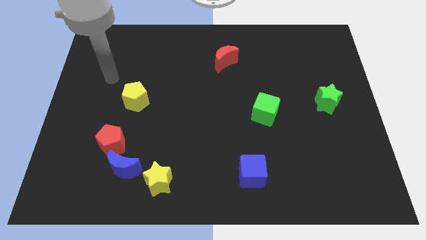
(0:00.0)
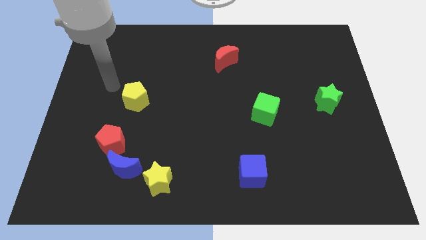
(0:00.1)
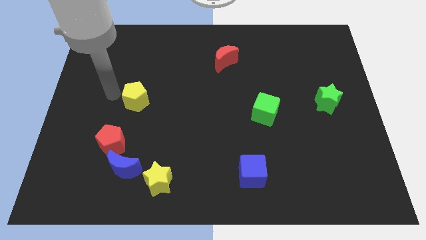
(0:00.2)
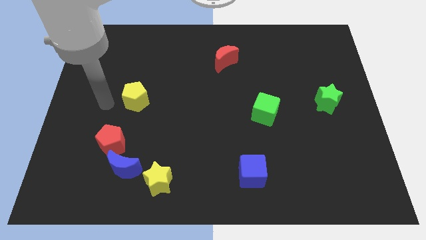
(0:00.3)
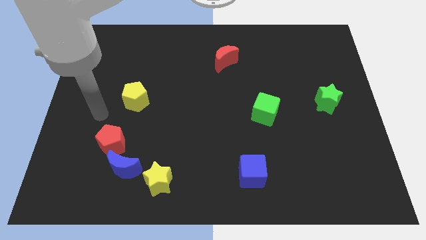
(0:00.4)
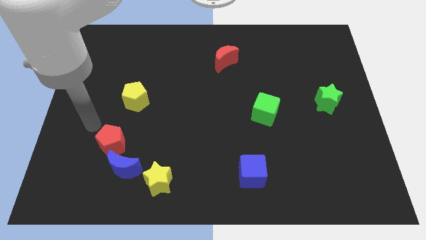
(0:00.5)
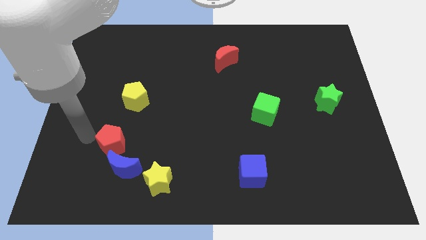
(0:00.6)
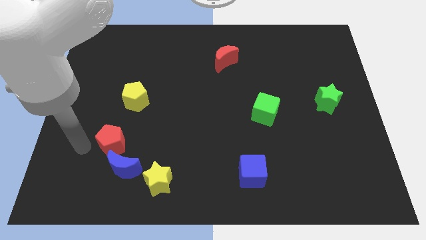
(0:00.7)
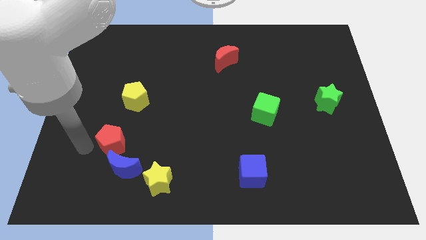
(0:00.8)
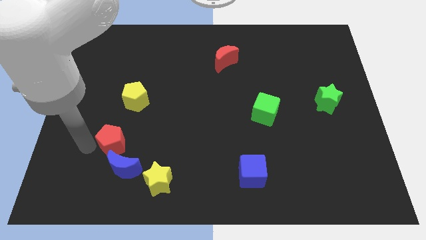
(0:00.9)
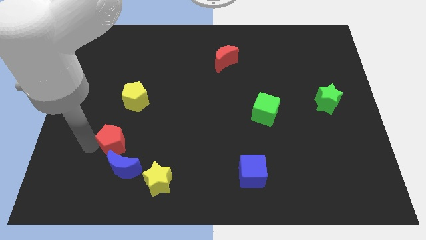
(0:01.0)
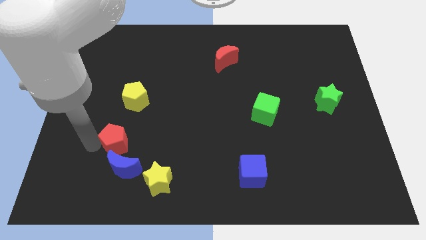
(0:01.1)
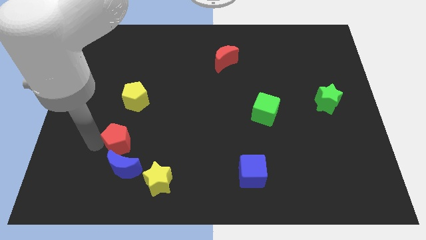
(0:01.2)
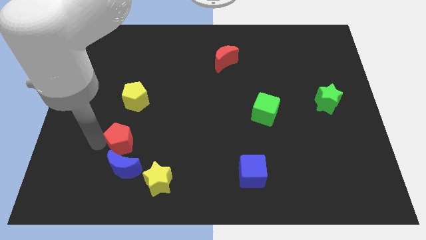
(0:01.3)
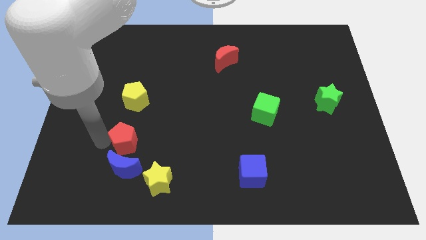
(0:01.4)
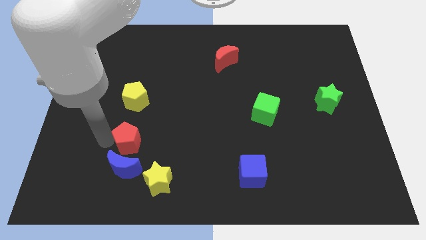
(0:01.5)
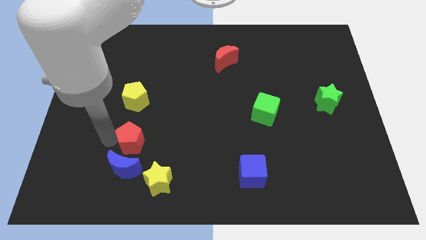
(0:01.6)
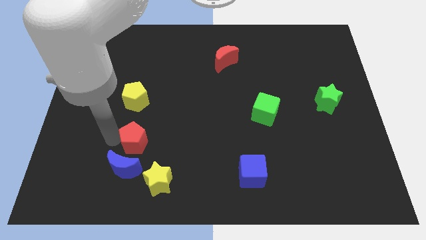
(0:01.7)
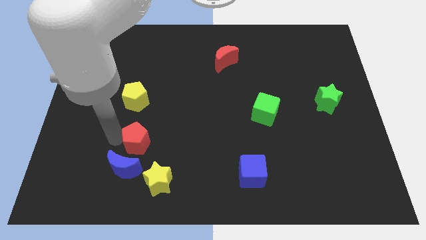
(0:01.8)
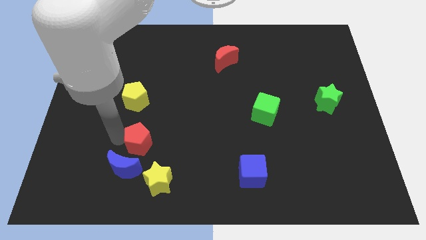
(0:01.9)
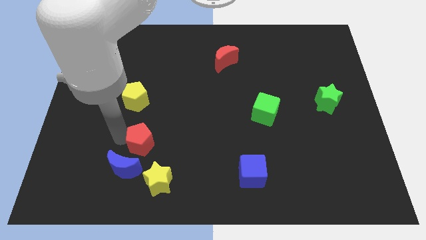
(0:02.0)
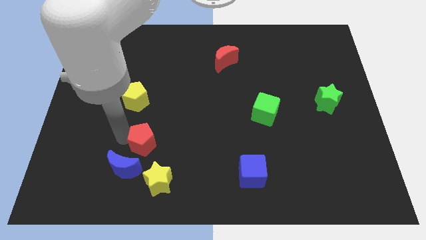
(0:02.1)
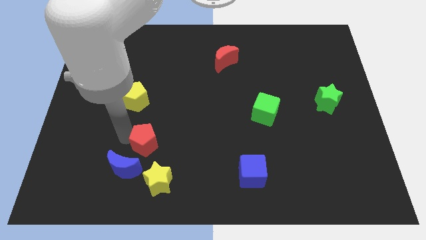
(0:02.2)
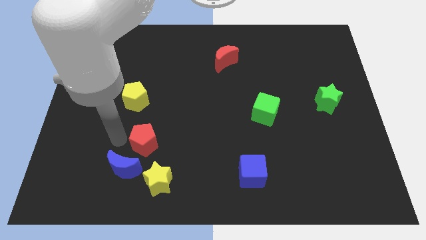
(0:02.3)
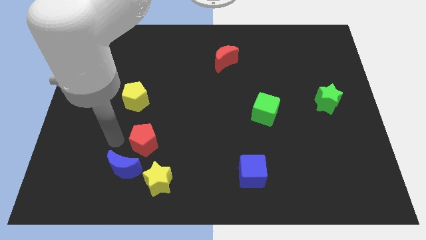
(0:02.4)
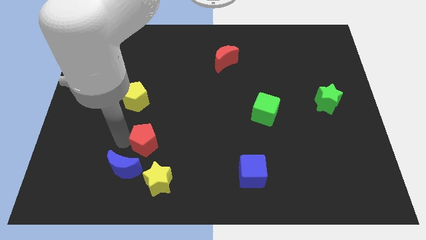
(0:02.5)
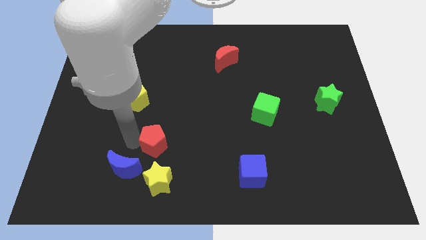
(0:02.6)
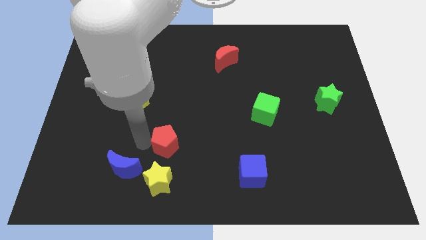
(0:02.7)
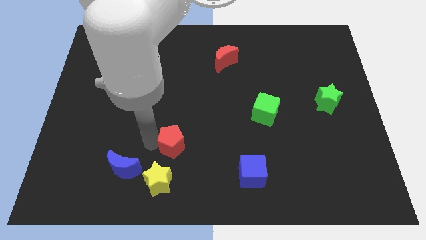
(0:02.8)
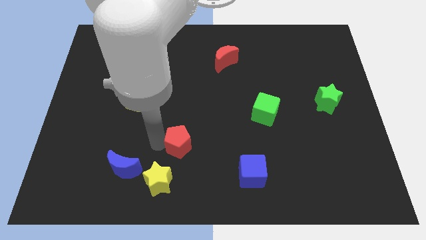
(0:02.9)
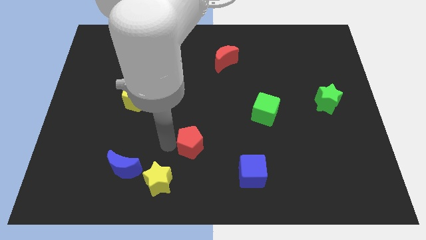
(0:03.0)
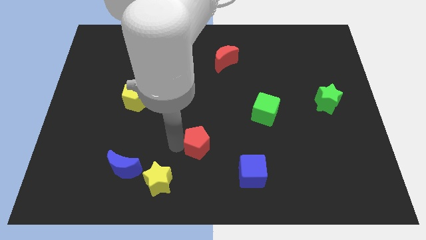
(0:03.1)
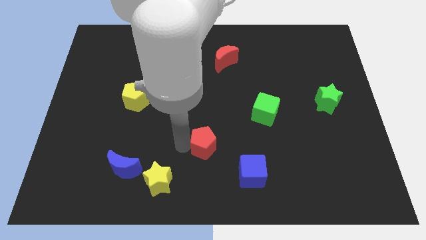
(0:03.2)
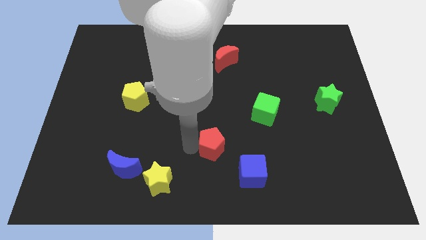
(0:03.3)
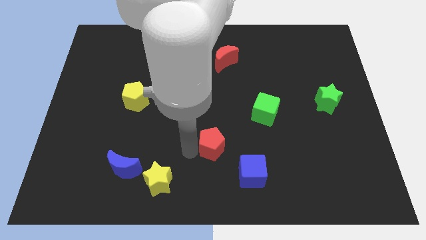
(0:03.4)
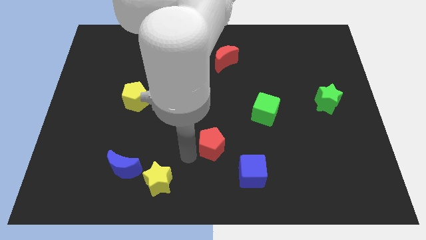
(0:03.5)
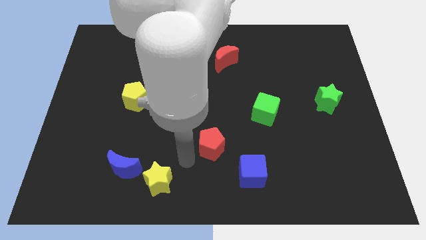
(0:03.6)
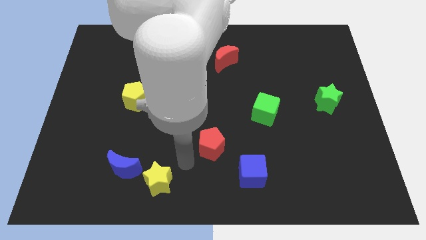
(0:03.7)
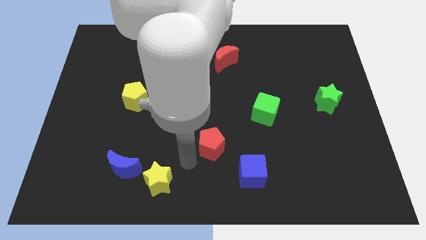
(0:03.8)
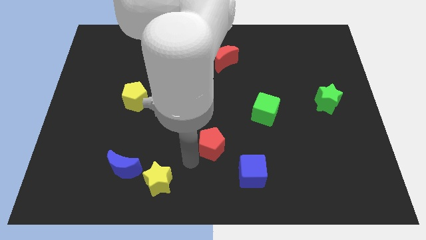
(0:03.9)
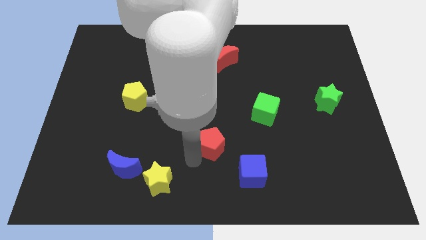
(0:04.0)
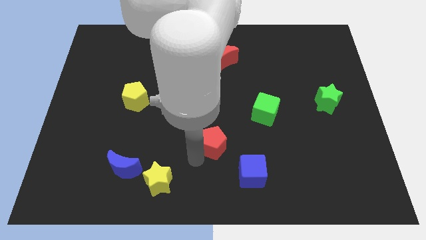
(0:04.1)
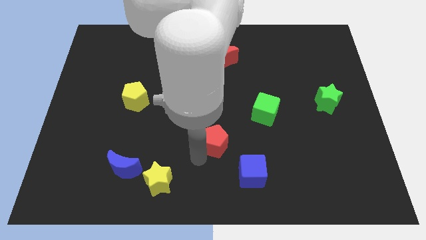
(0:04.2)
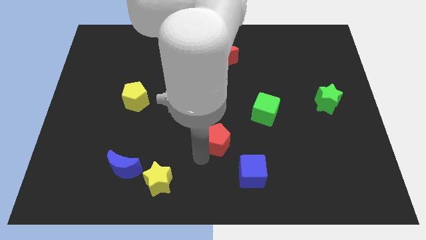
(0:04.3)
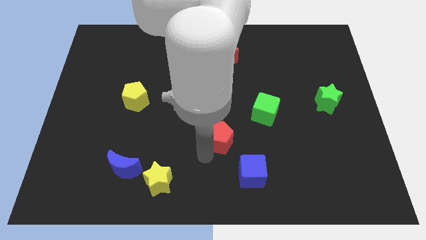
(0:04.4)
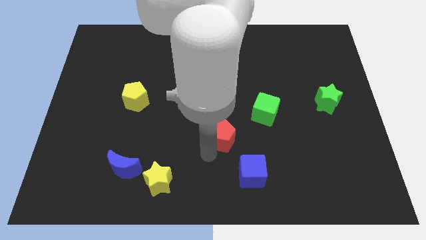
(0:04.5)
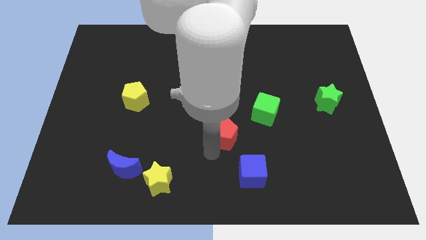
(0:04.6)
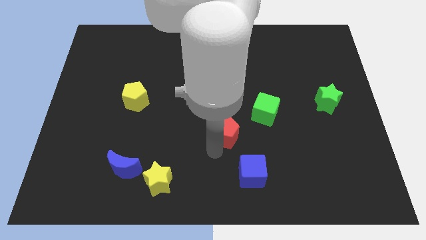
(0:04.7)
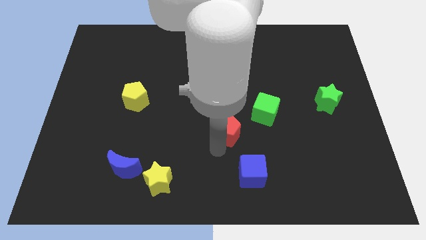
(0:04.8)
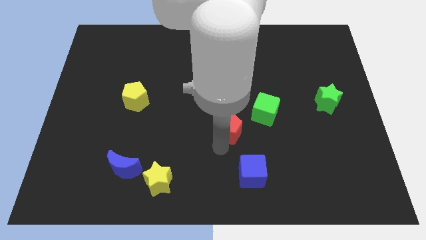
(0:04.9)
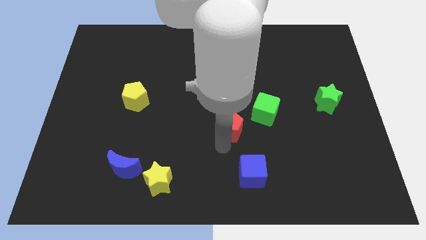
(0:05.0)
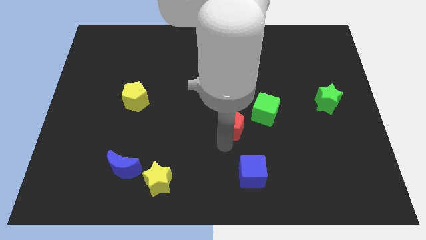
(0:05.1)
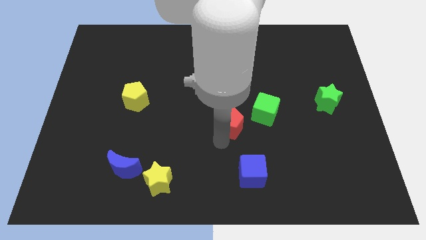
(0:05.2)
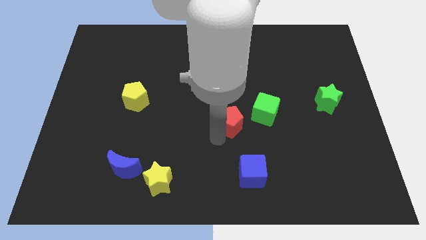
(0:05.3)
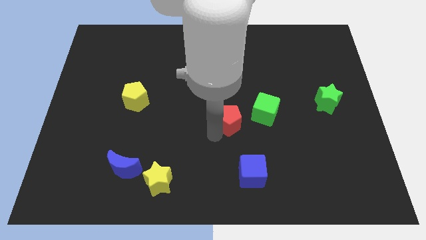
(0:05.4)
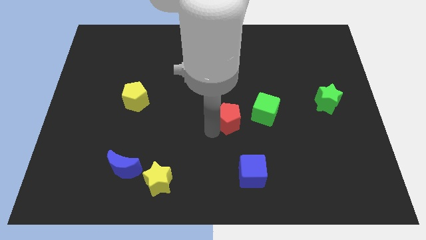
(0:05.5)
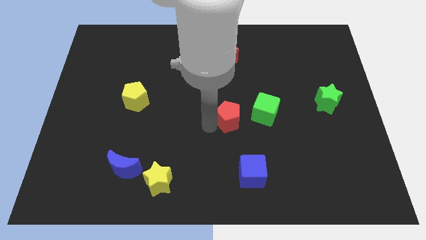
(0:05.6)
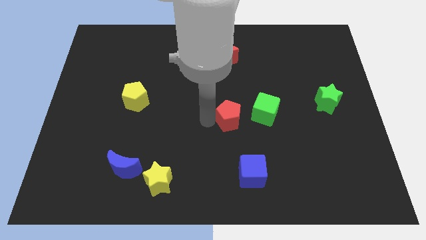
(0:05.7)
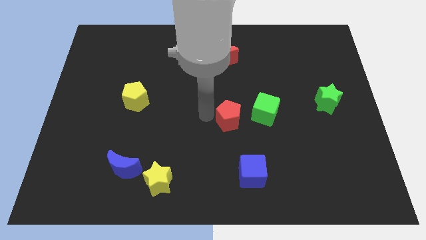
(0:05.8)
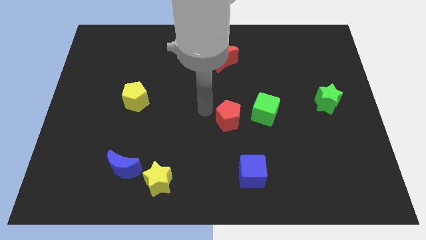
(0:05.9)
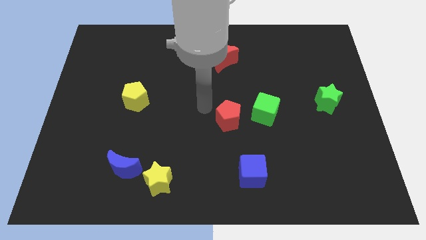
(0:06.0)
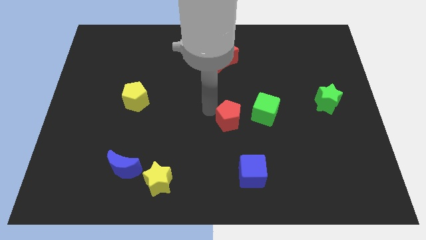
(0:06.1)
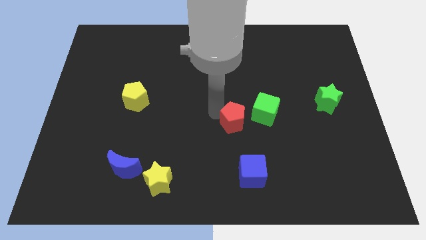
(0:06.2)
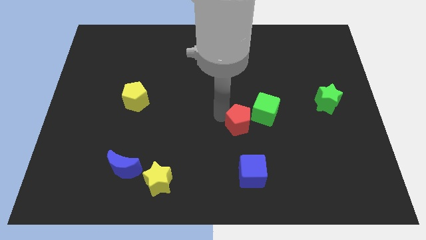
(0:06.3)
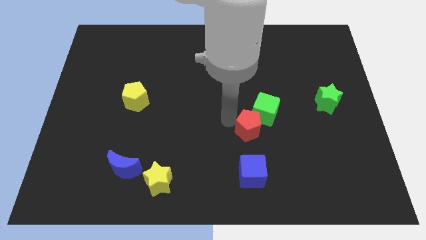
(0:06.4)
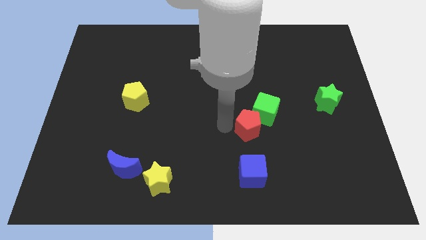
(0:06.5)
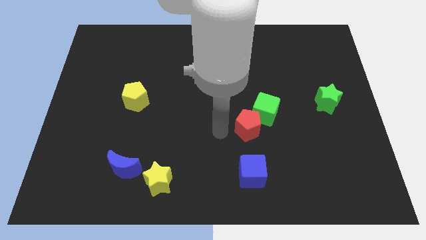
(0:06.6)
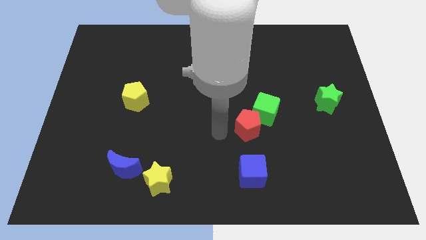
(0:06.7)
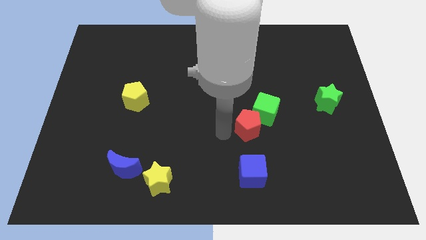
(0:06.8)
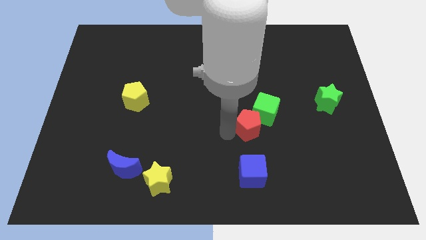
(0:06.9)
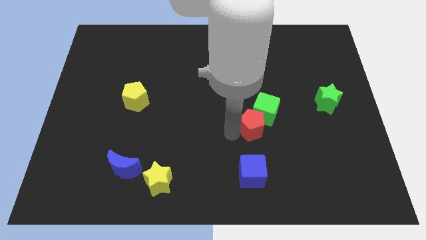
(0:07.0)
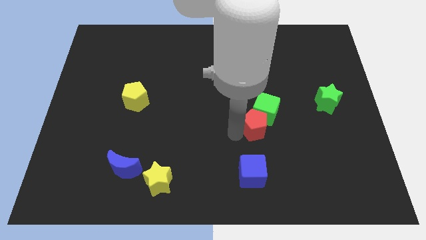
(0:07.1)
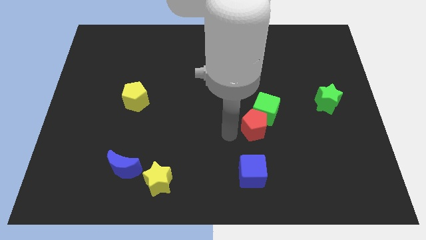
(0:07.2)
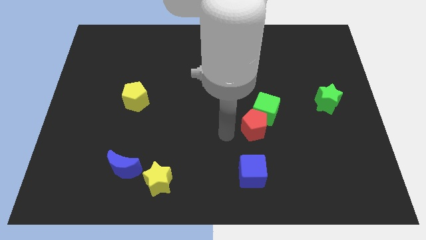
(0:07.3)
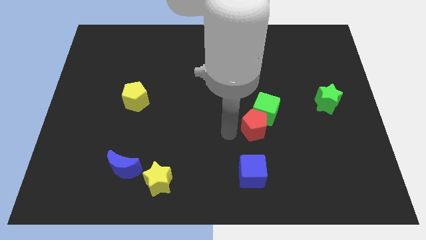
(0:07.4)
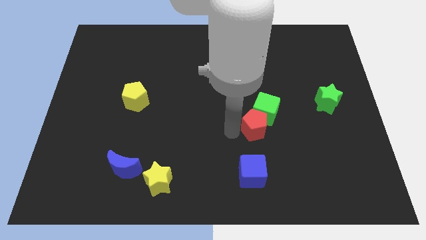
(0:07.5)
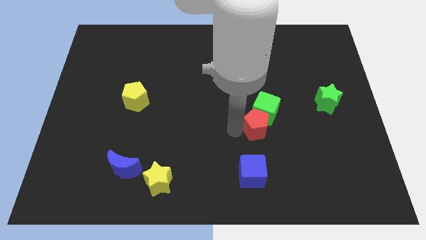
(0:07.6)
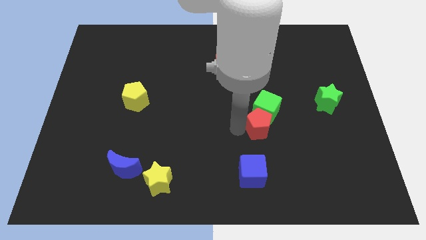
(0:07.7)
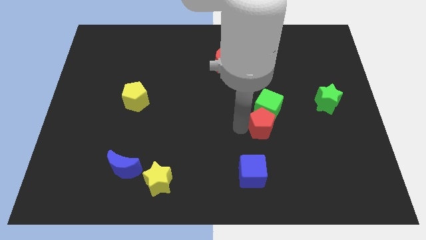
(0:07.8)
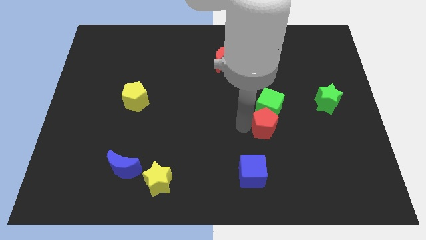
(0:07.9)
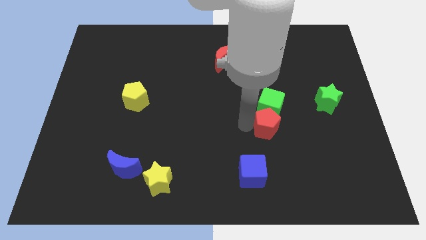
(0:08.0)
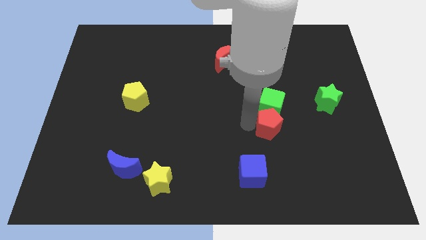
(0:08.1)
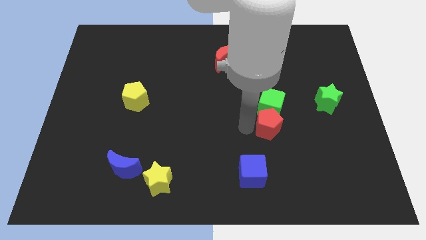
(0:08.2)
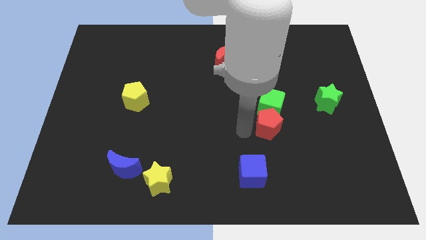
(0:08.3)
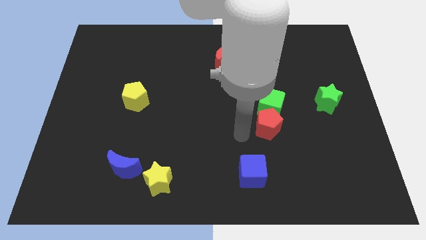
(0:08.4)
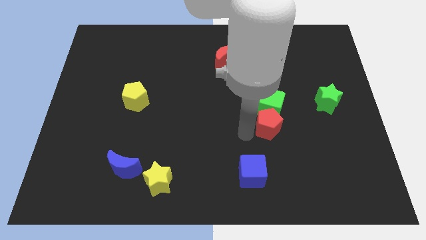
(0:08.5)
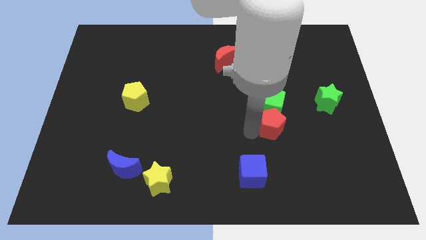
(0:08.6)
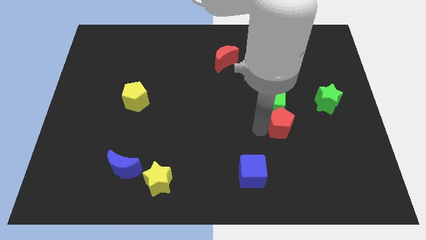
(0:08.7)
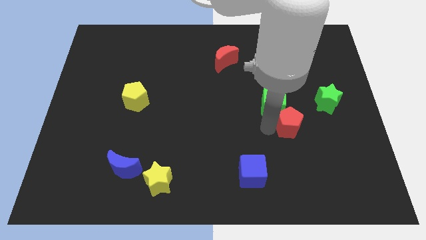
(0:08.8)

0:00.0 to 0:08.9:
move the red pentagon to the bottom left of the green star
